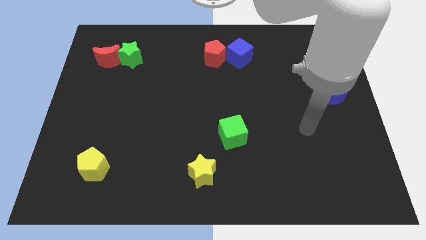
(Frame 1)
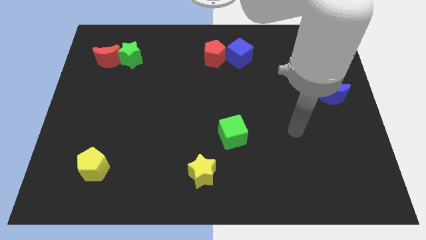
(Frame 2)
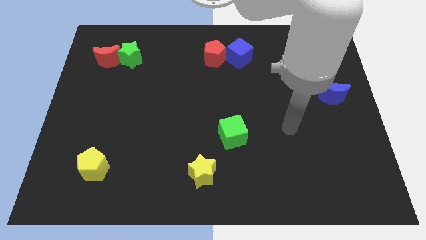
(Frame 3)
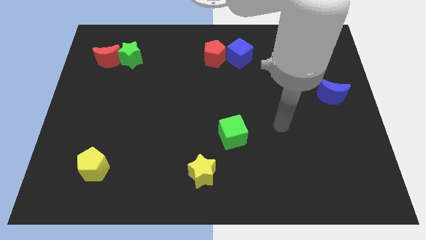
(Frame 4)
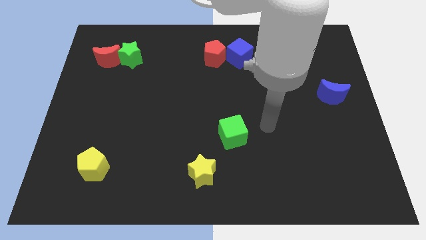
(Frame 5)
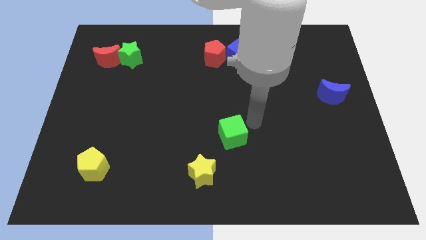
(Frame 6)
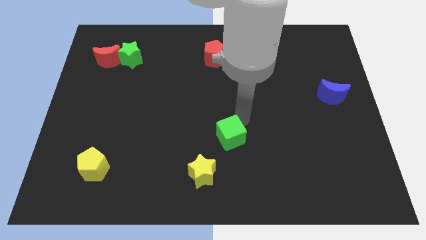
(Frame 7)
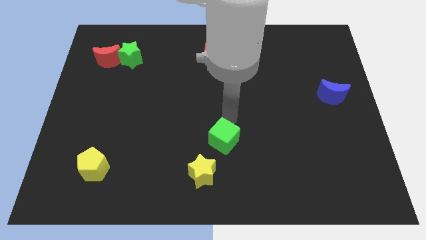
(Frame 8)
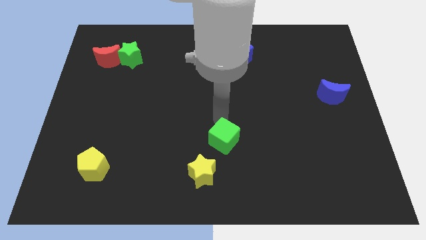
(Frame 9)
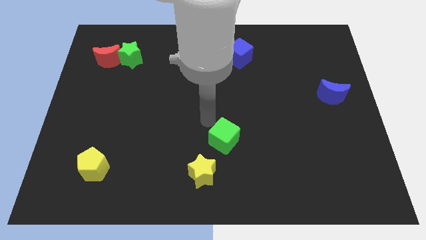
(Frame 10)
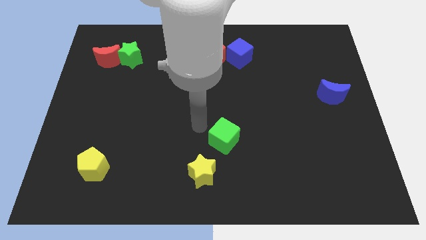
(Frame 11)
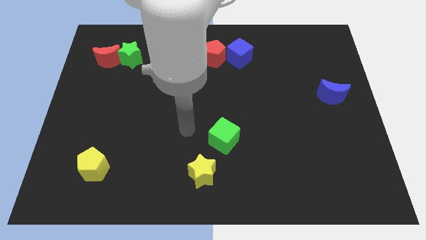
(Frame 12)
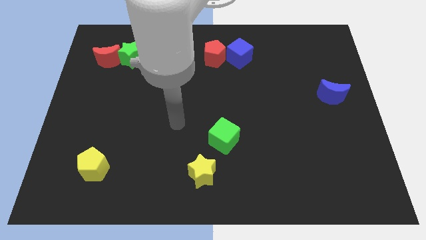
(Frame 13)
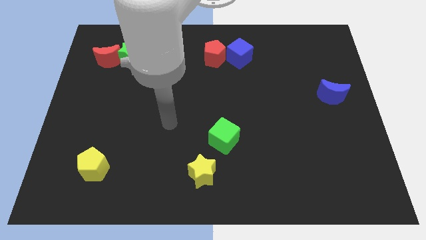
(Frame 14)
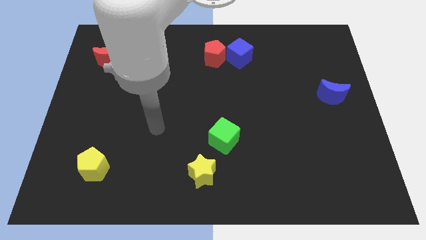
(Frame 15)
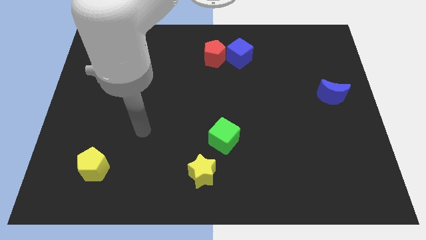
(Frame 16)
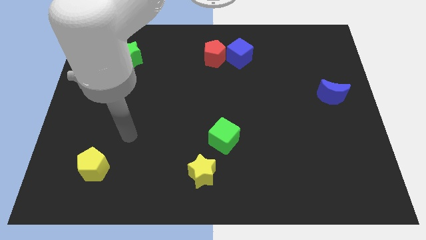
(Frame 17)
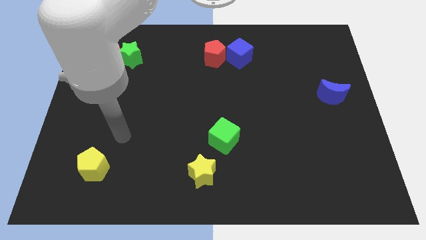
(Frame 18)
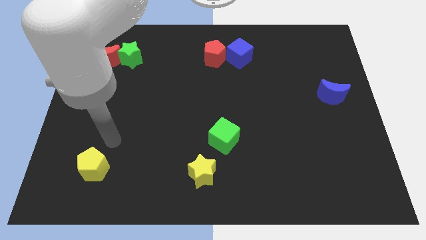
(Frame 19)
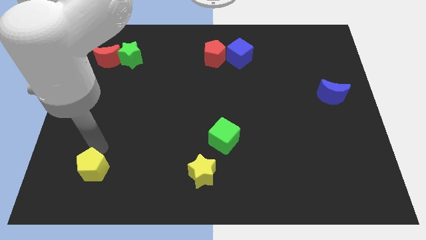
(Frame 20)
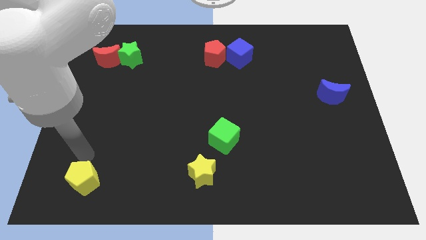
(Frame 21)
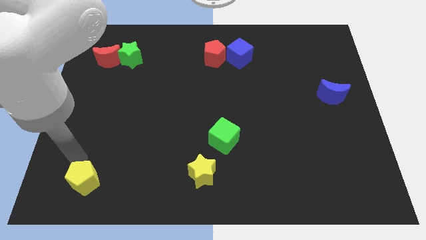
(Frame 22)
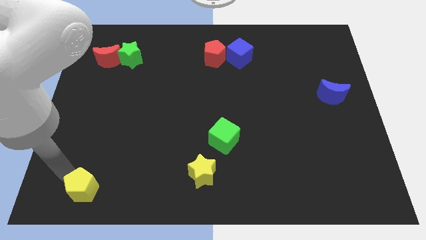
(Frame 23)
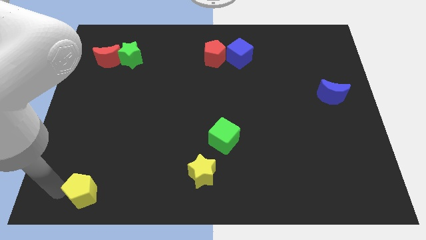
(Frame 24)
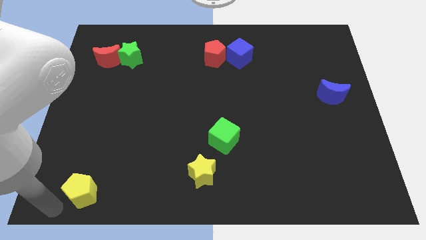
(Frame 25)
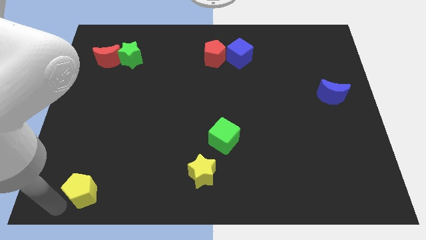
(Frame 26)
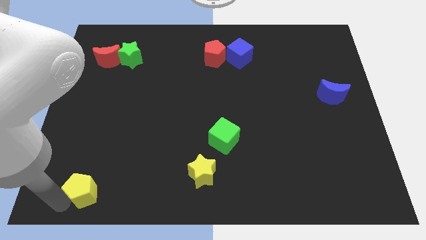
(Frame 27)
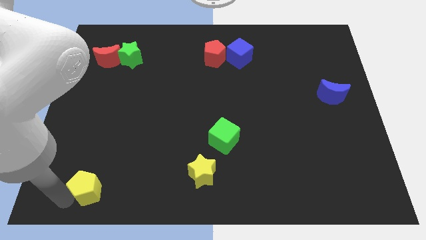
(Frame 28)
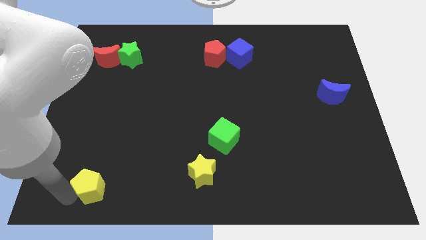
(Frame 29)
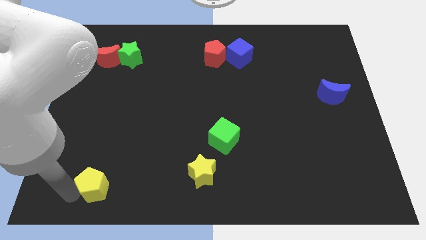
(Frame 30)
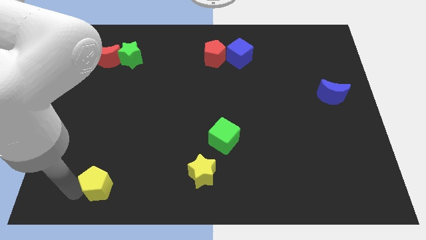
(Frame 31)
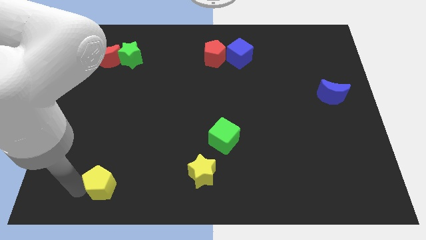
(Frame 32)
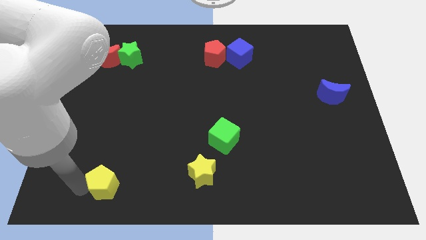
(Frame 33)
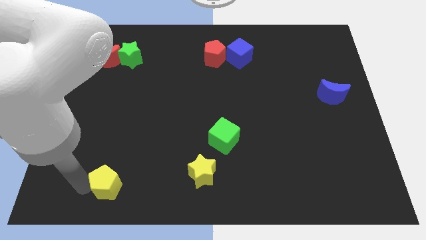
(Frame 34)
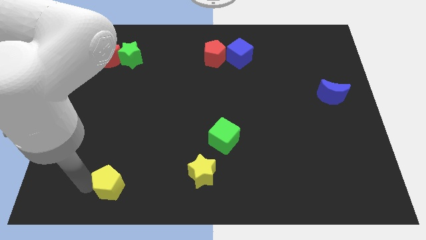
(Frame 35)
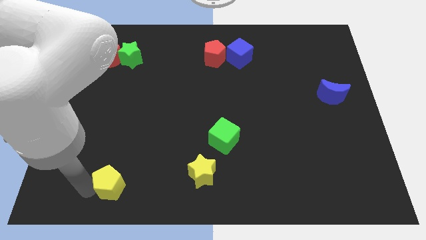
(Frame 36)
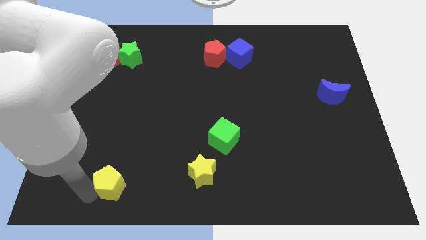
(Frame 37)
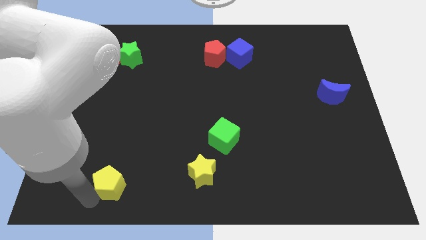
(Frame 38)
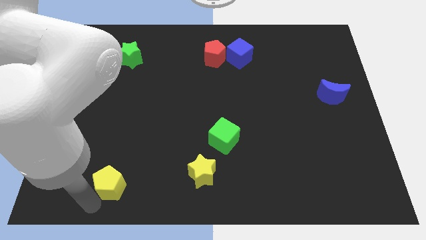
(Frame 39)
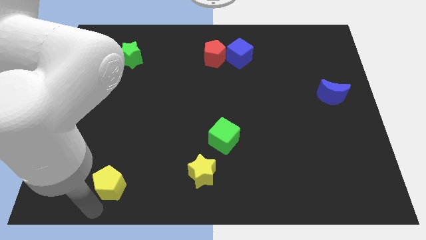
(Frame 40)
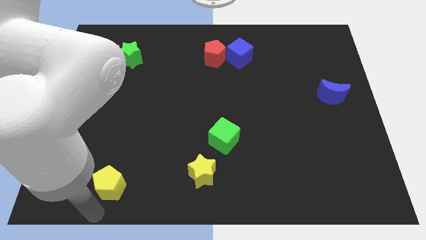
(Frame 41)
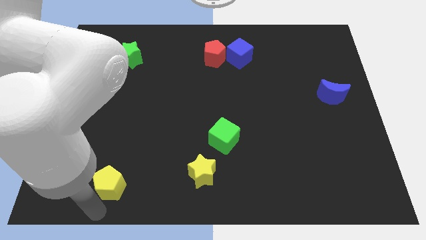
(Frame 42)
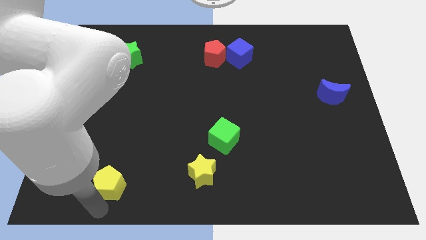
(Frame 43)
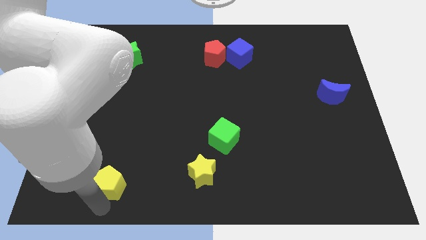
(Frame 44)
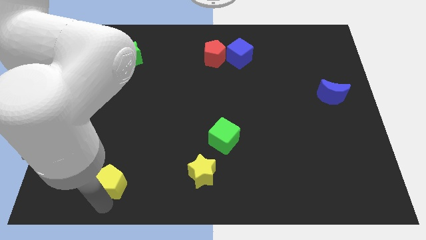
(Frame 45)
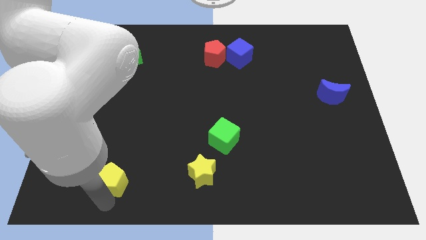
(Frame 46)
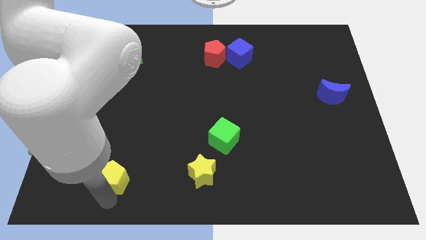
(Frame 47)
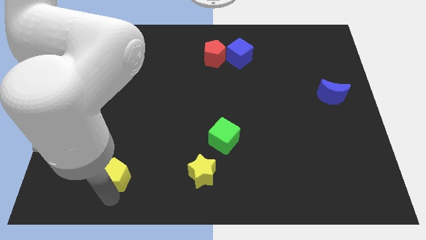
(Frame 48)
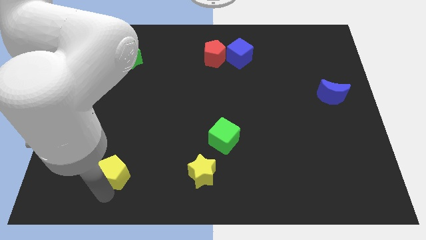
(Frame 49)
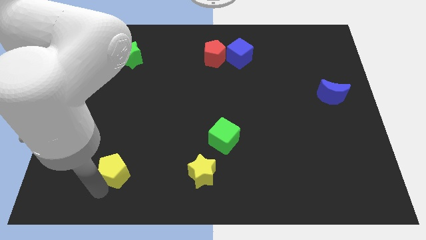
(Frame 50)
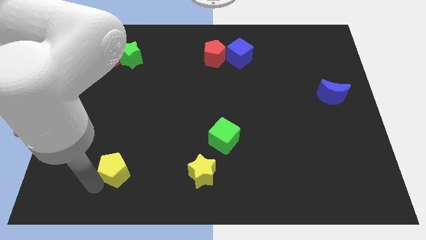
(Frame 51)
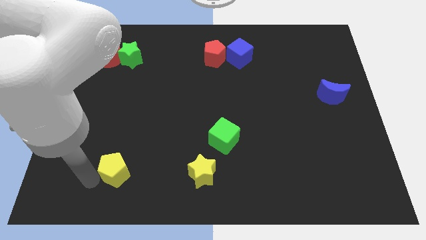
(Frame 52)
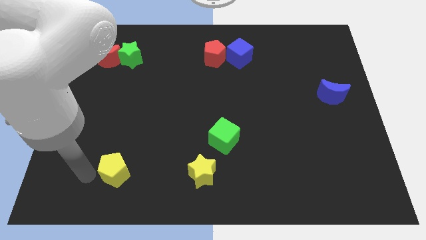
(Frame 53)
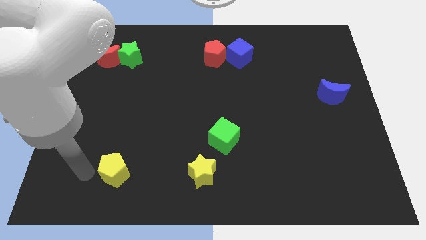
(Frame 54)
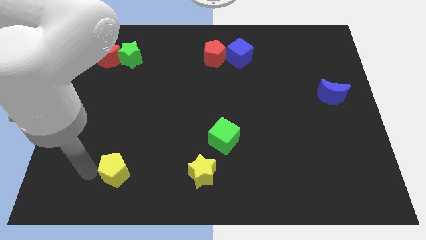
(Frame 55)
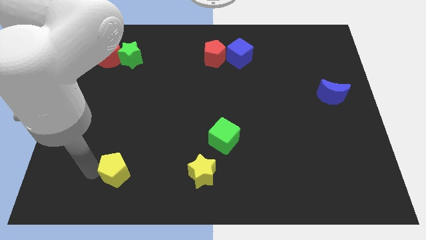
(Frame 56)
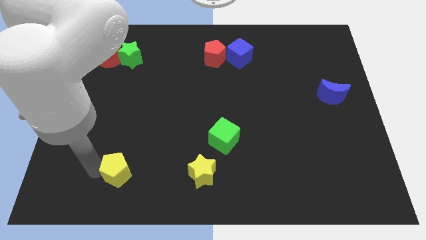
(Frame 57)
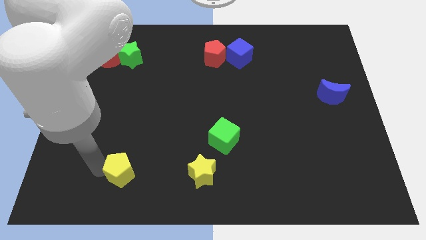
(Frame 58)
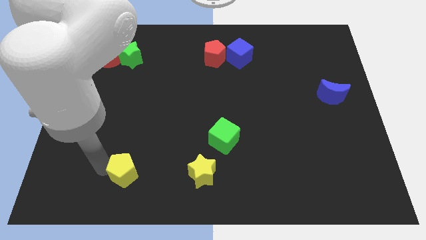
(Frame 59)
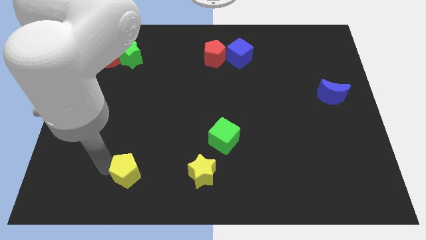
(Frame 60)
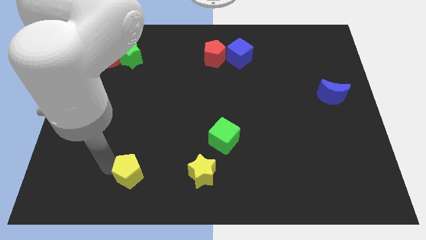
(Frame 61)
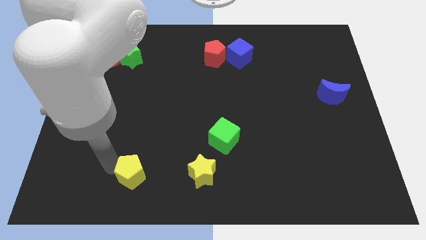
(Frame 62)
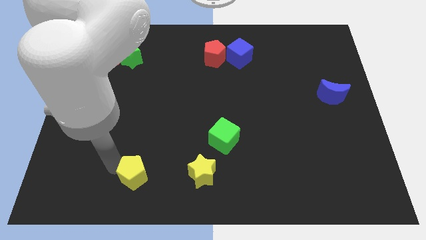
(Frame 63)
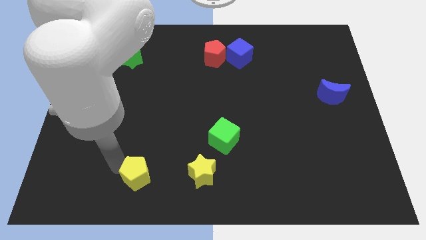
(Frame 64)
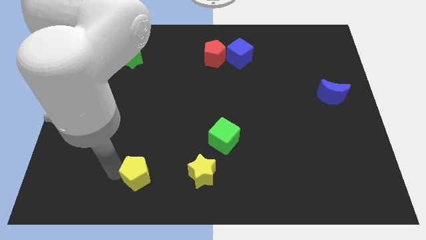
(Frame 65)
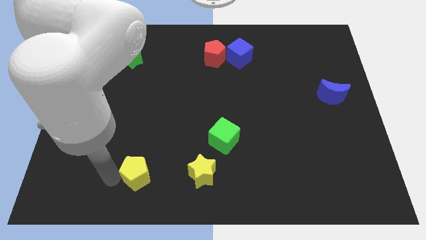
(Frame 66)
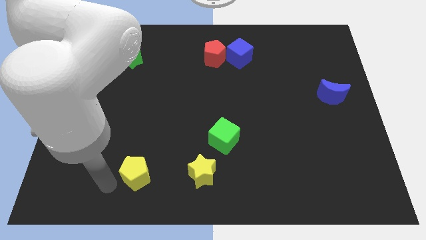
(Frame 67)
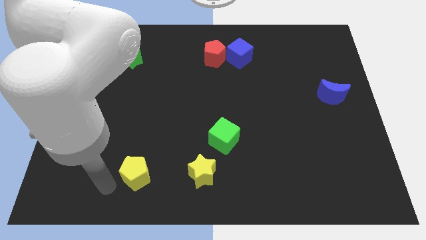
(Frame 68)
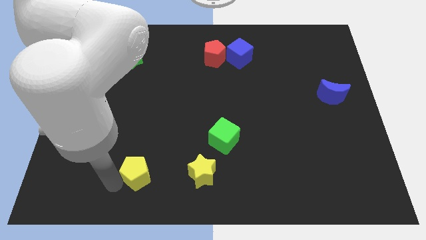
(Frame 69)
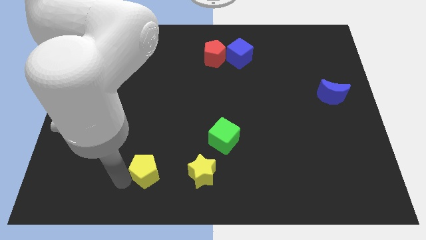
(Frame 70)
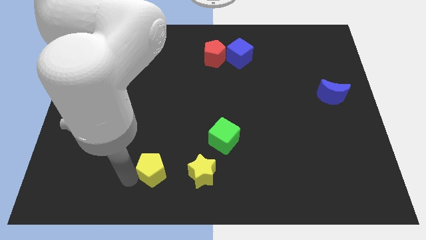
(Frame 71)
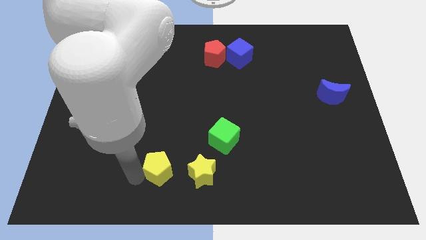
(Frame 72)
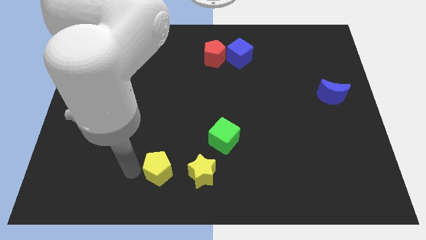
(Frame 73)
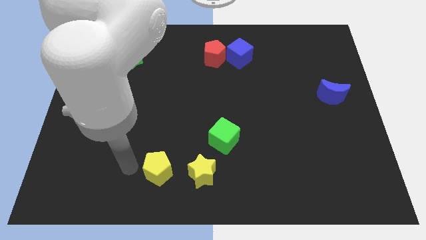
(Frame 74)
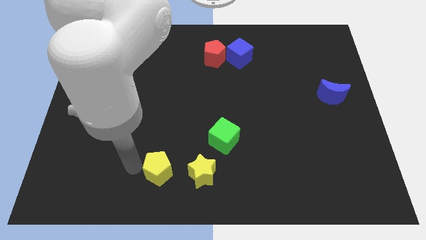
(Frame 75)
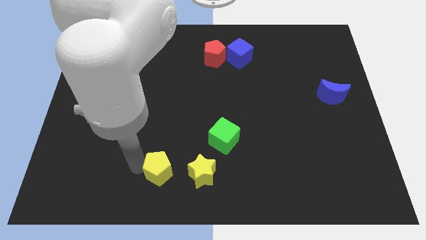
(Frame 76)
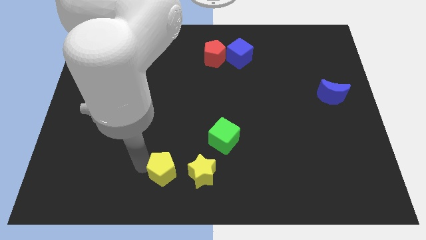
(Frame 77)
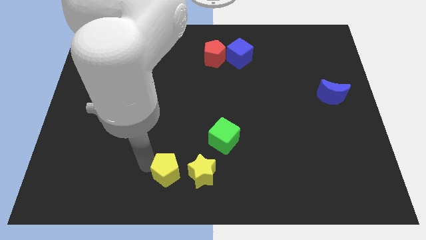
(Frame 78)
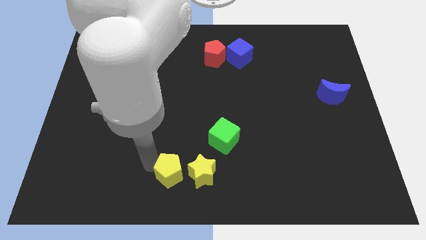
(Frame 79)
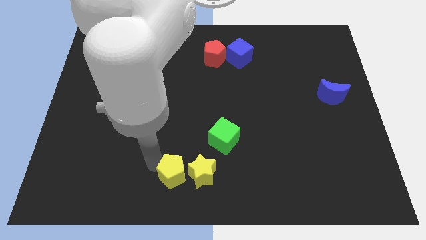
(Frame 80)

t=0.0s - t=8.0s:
push the yellow pentagon close to the yellow star
